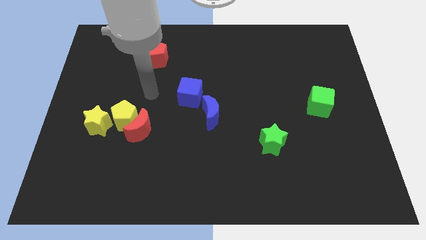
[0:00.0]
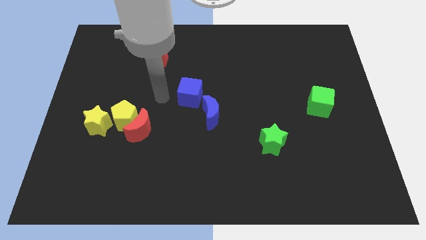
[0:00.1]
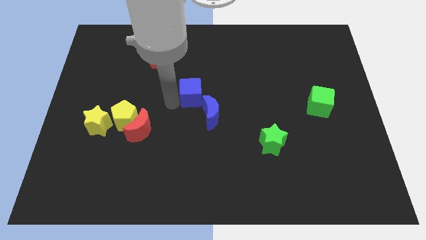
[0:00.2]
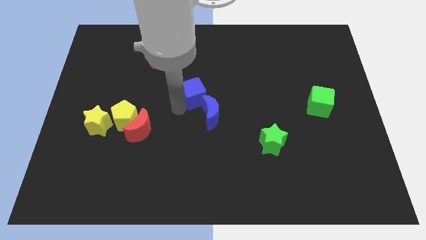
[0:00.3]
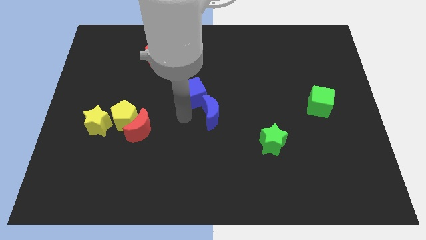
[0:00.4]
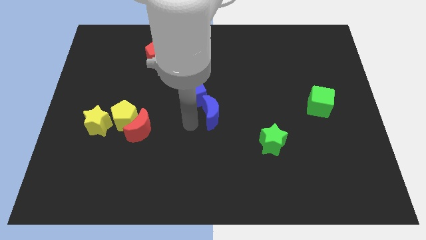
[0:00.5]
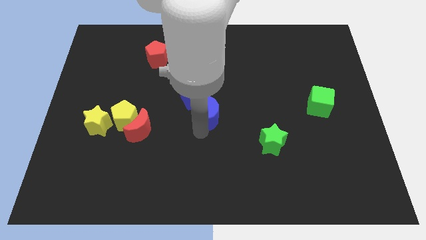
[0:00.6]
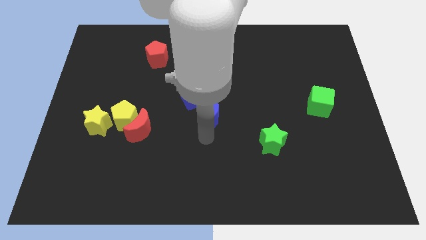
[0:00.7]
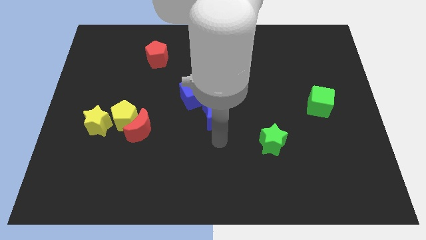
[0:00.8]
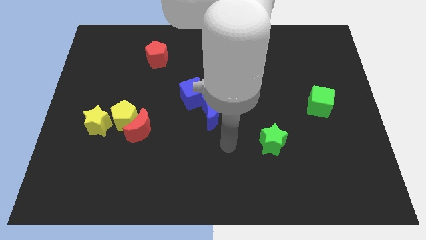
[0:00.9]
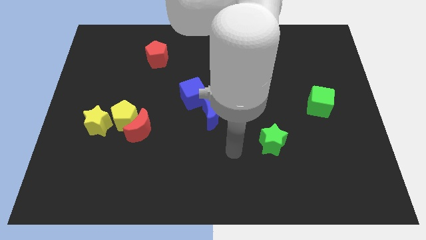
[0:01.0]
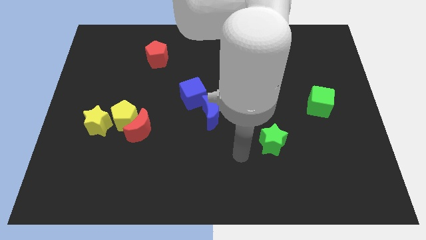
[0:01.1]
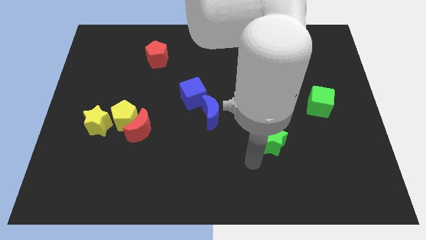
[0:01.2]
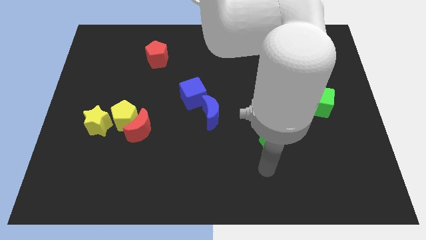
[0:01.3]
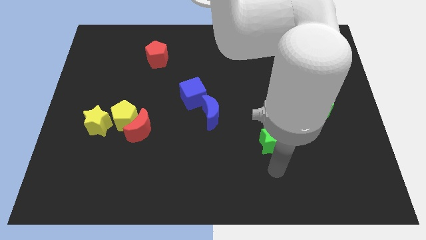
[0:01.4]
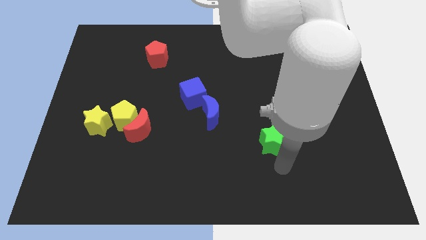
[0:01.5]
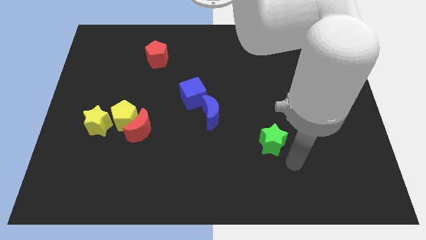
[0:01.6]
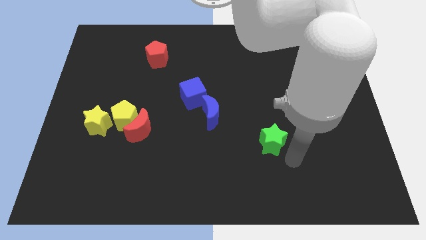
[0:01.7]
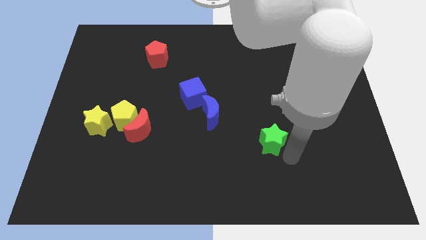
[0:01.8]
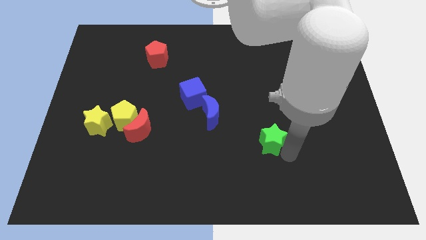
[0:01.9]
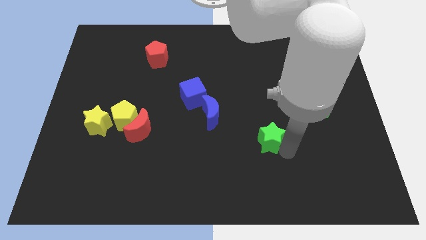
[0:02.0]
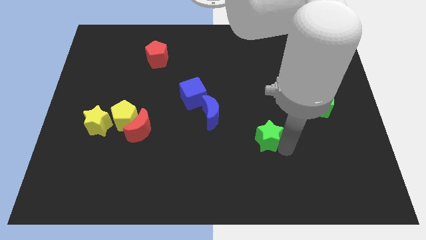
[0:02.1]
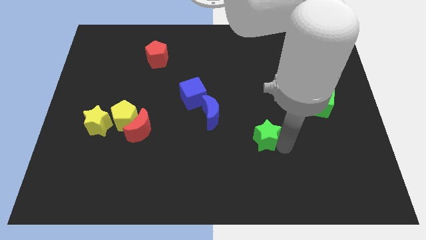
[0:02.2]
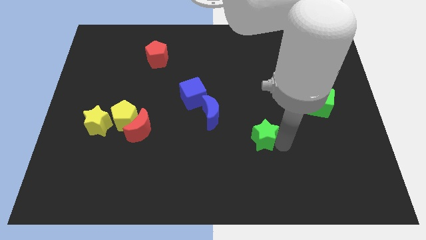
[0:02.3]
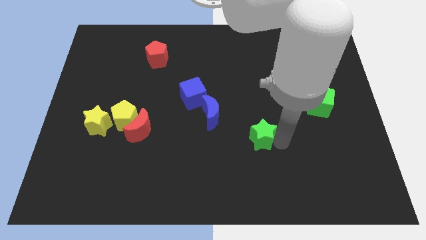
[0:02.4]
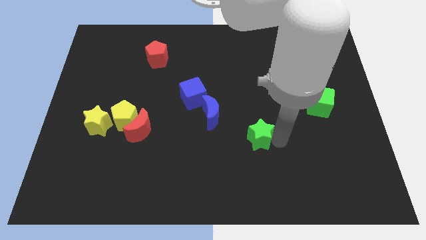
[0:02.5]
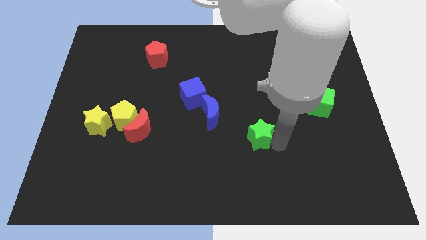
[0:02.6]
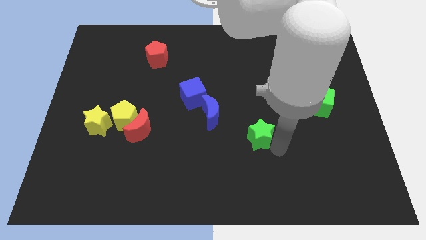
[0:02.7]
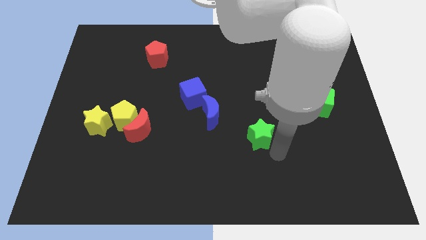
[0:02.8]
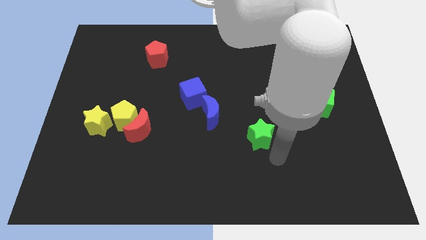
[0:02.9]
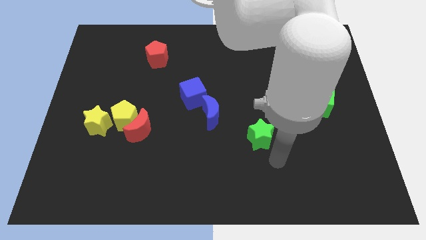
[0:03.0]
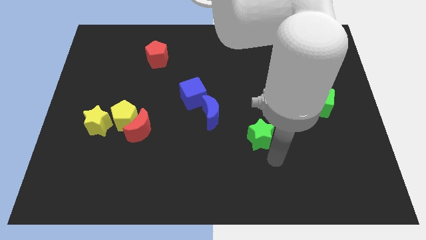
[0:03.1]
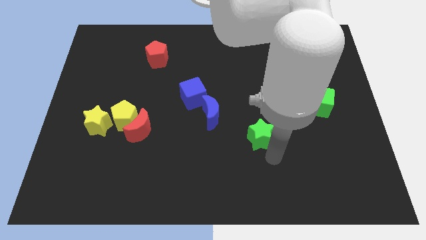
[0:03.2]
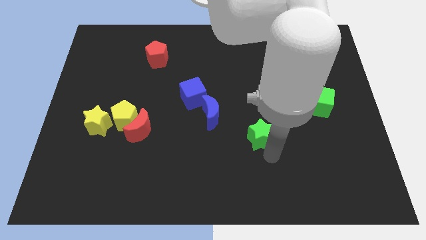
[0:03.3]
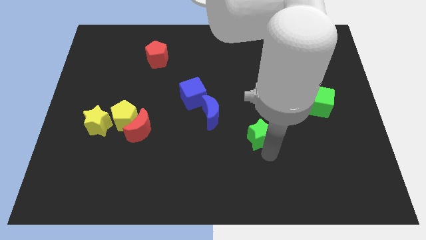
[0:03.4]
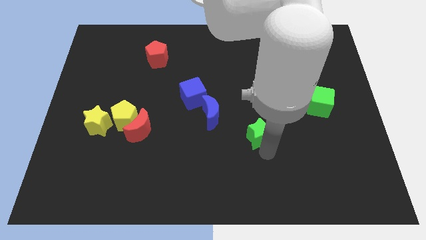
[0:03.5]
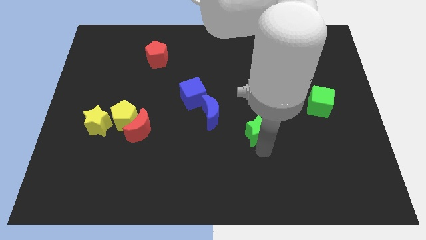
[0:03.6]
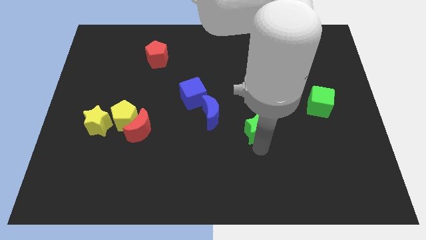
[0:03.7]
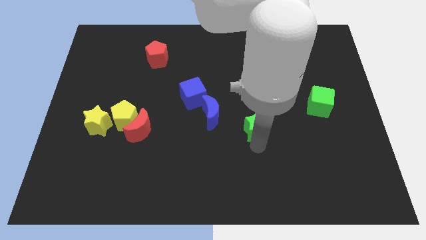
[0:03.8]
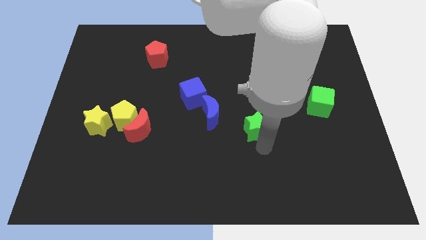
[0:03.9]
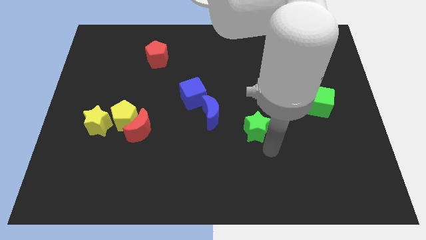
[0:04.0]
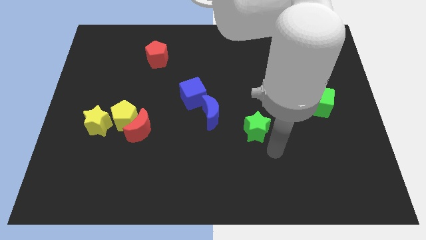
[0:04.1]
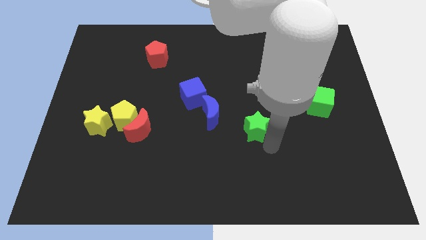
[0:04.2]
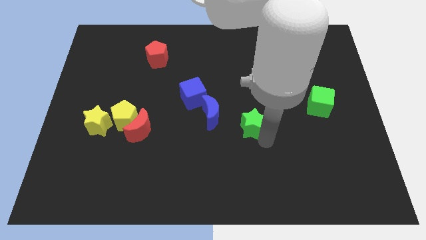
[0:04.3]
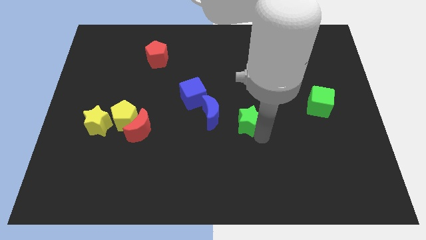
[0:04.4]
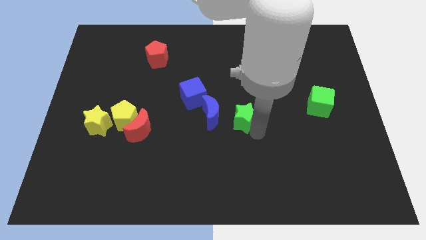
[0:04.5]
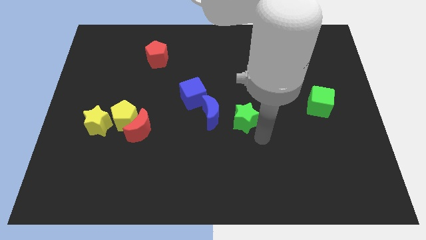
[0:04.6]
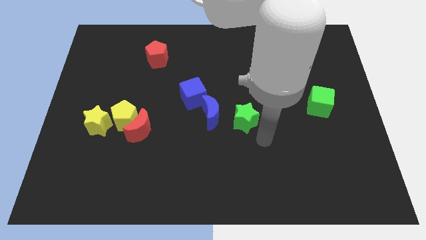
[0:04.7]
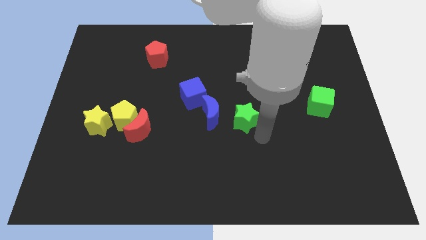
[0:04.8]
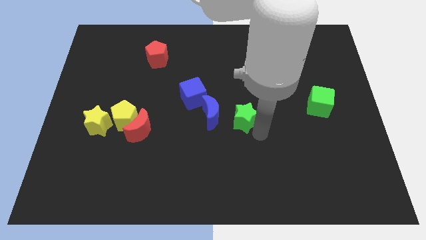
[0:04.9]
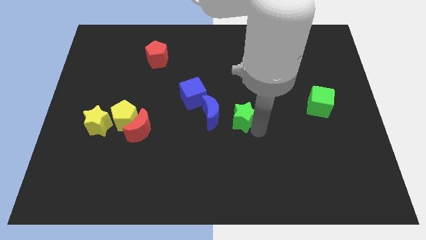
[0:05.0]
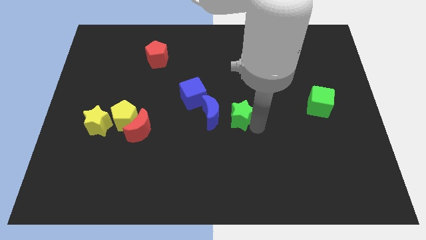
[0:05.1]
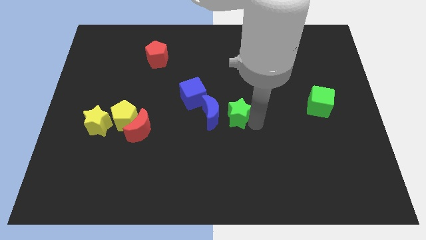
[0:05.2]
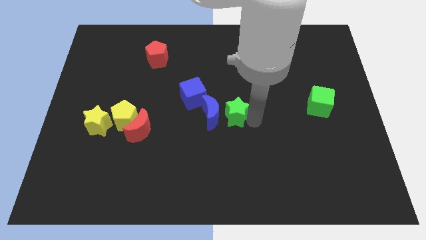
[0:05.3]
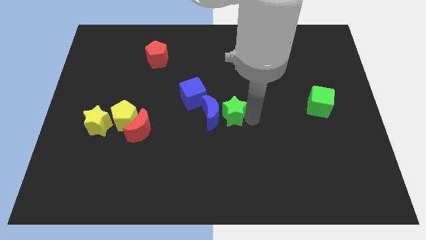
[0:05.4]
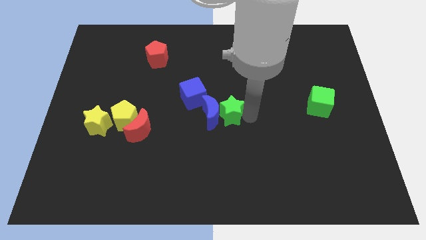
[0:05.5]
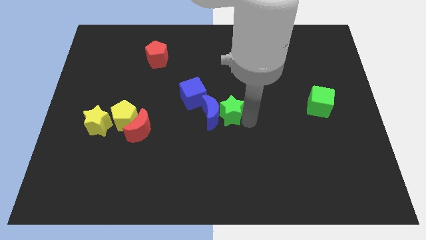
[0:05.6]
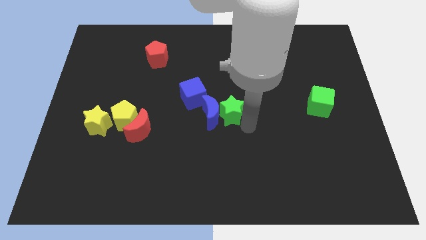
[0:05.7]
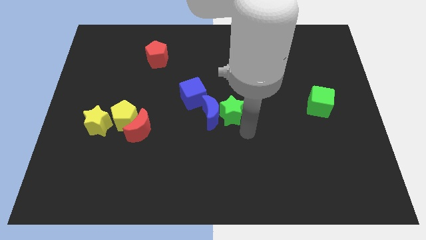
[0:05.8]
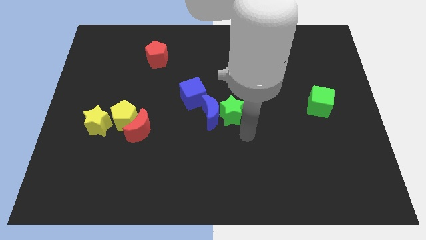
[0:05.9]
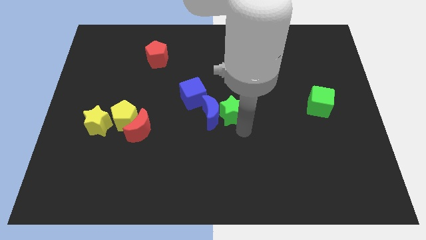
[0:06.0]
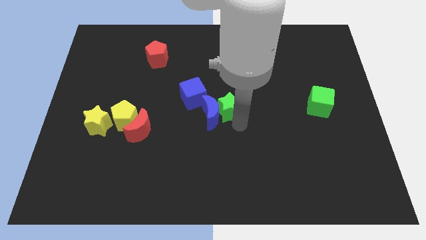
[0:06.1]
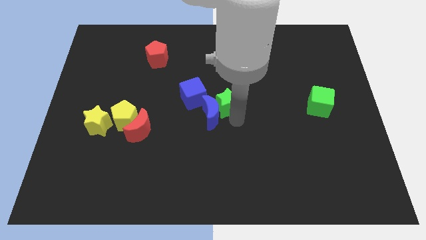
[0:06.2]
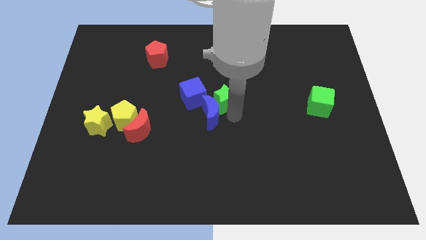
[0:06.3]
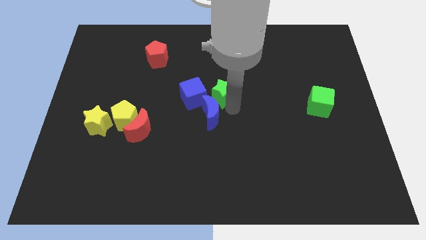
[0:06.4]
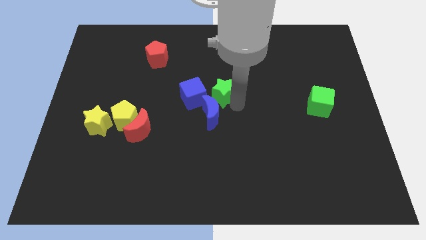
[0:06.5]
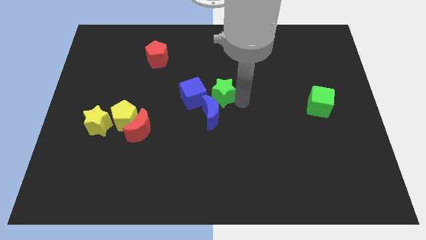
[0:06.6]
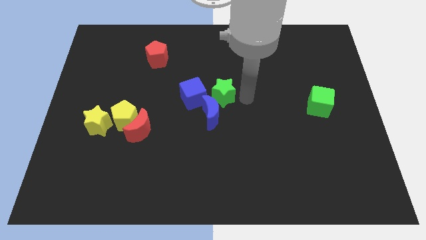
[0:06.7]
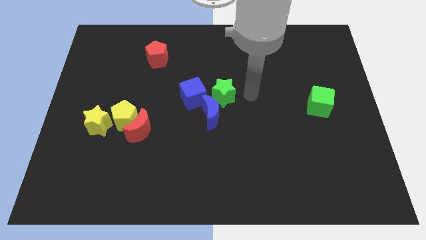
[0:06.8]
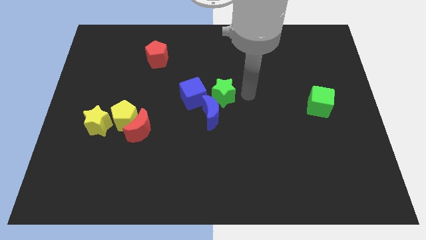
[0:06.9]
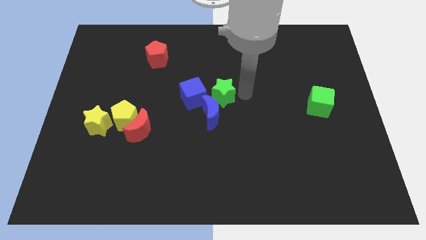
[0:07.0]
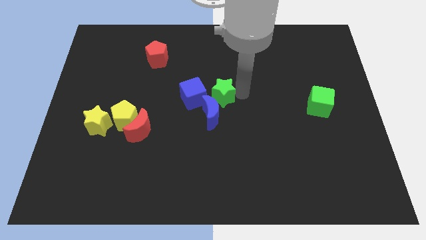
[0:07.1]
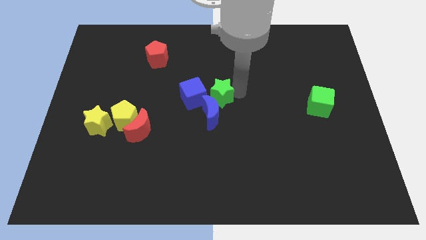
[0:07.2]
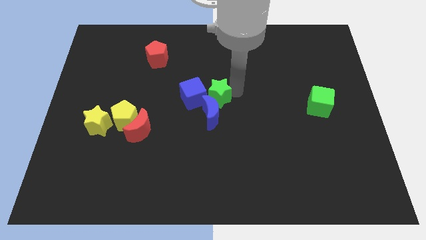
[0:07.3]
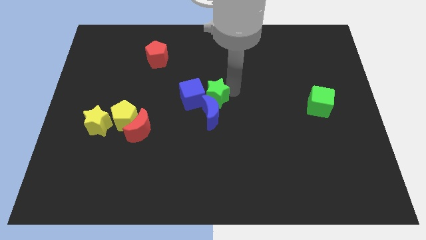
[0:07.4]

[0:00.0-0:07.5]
move the green star to the blue cube
